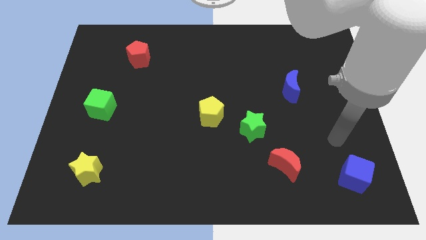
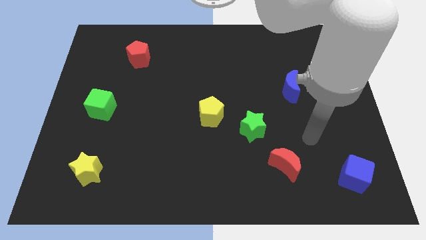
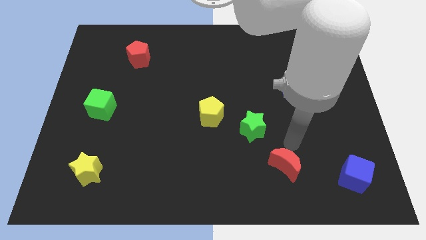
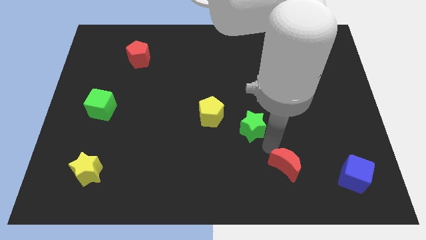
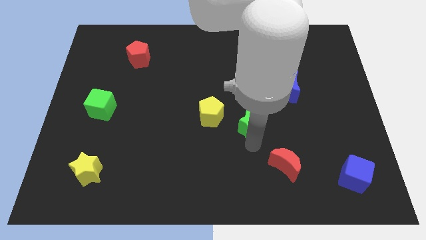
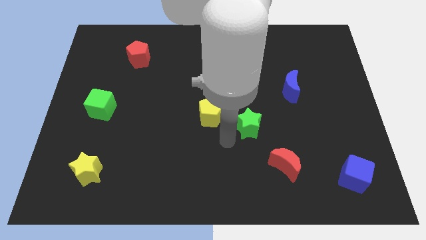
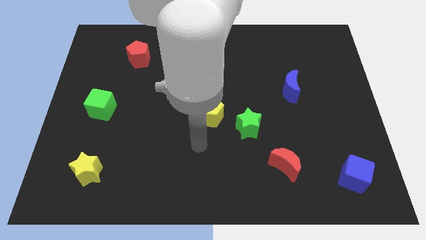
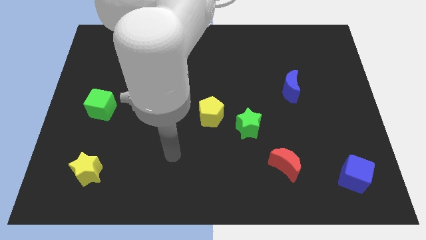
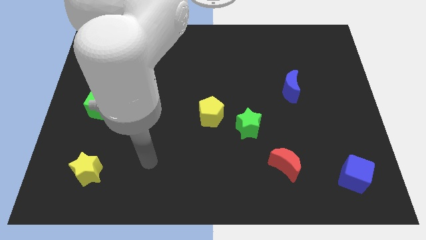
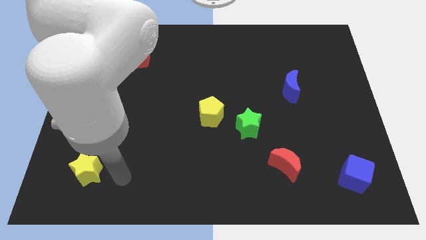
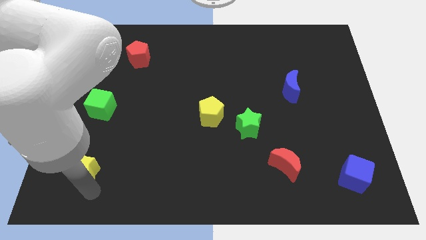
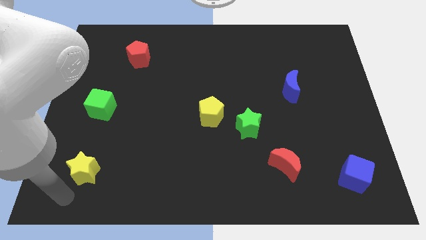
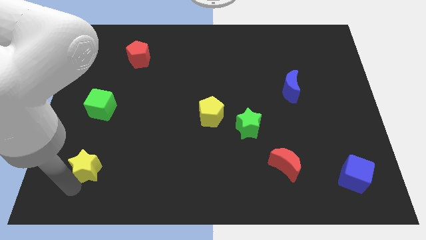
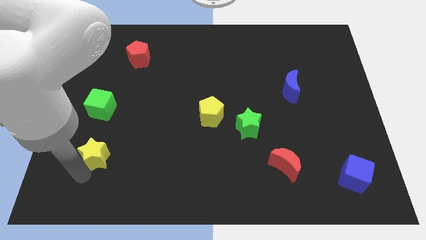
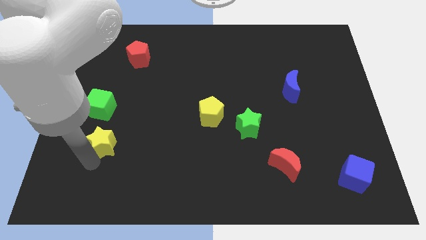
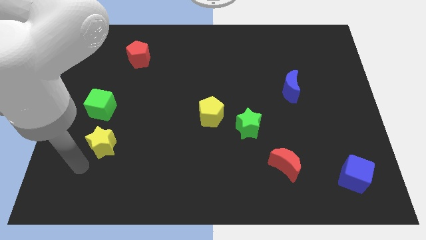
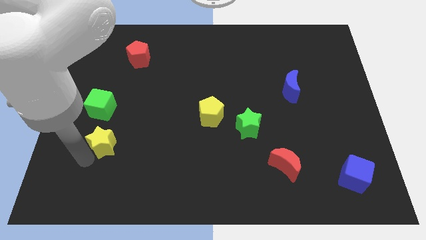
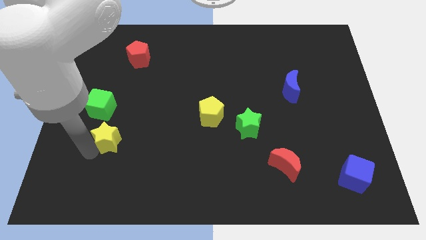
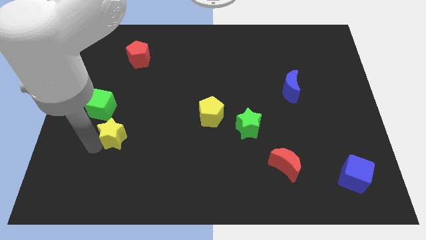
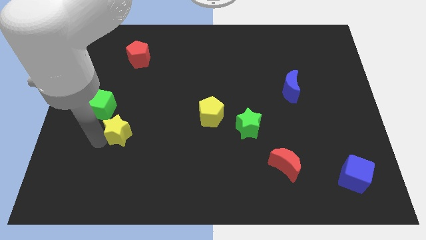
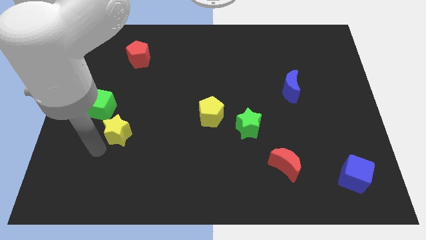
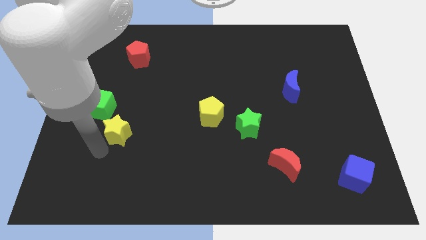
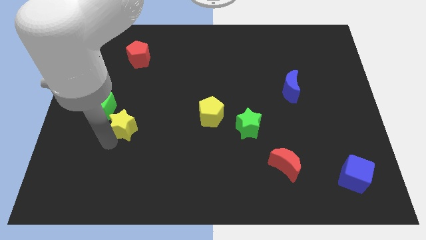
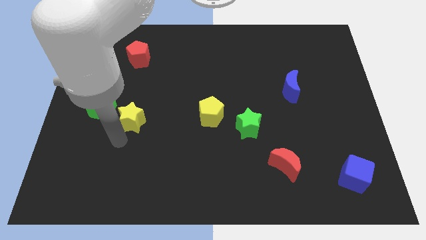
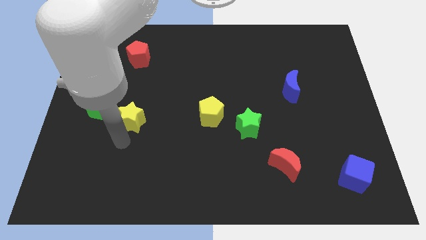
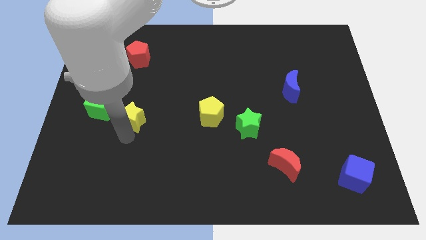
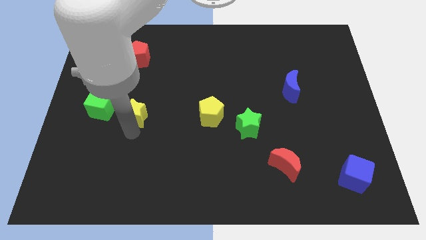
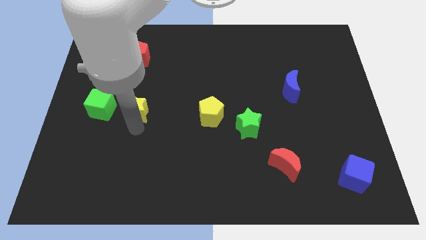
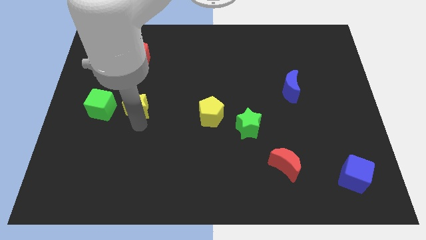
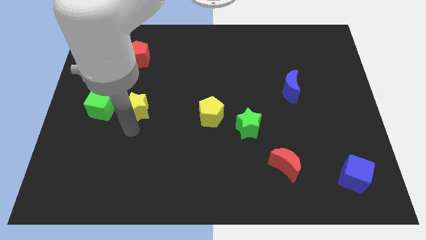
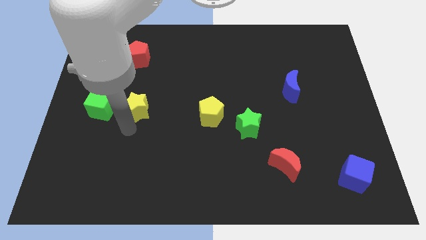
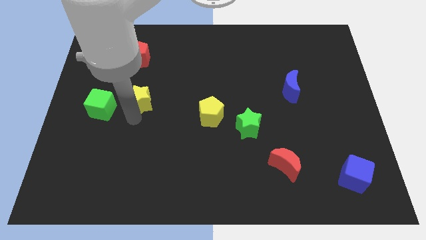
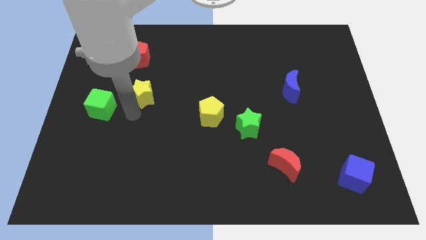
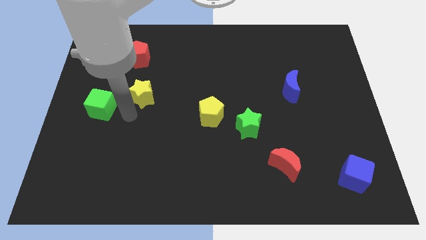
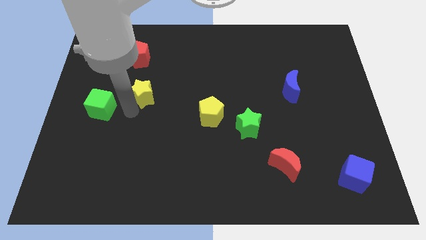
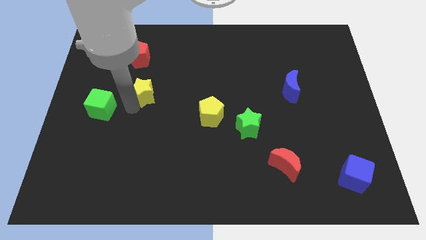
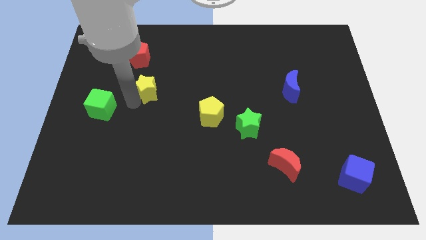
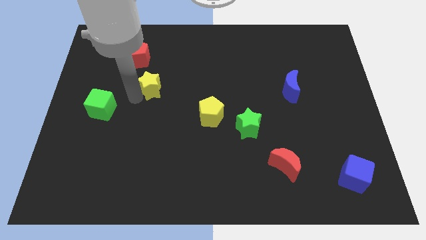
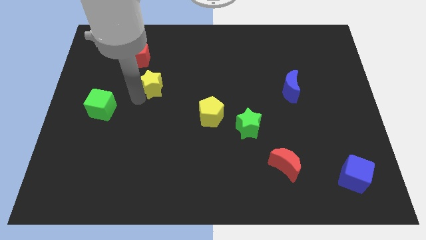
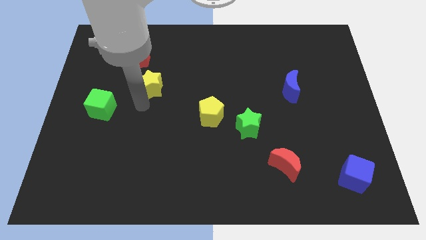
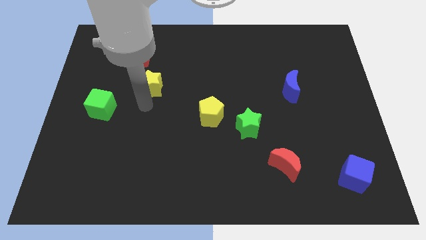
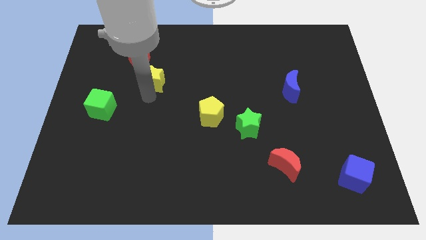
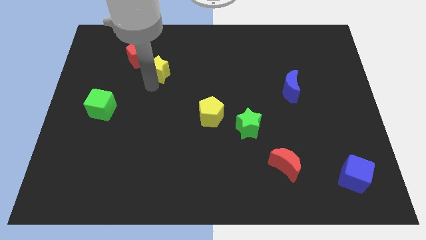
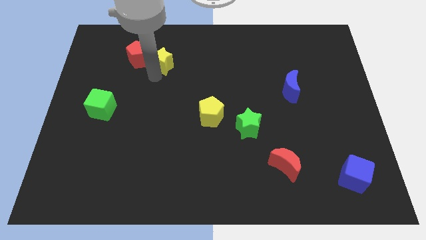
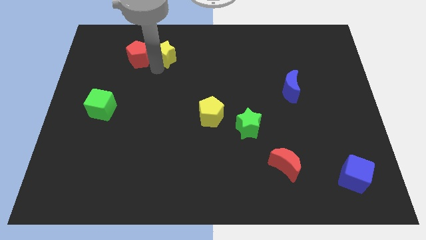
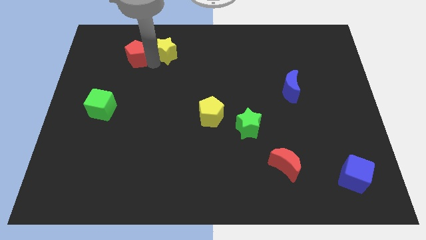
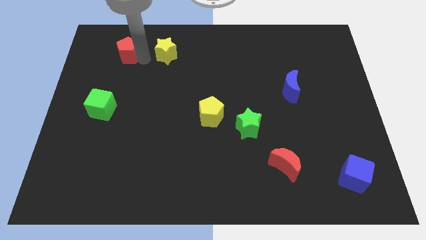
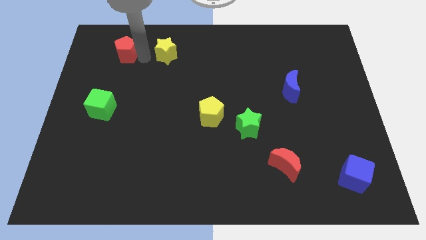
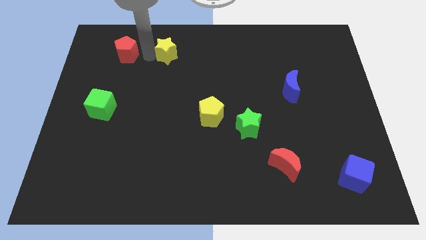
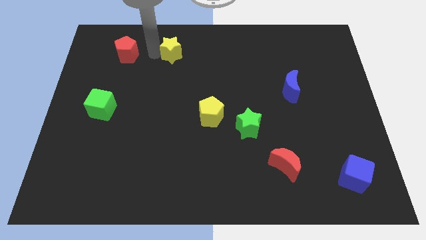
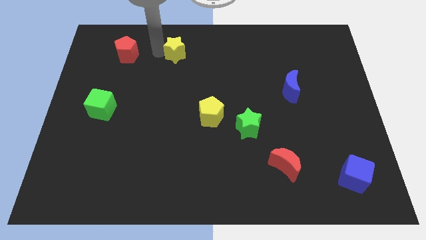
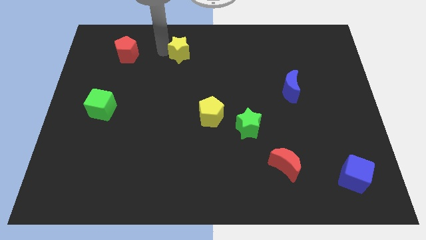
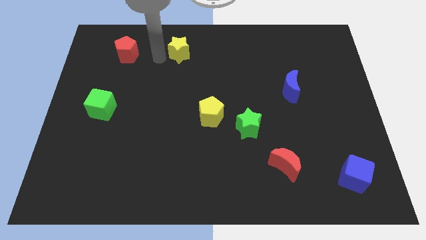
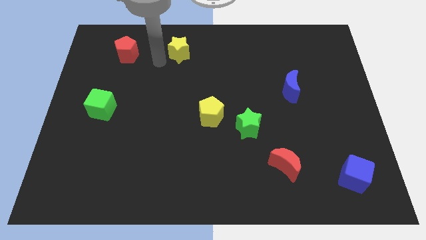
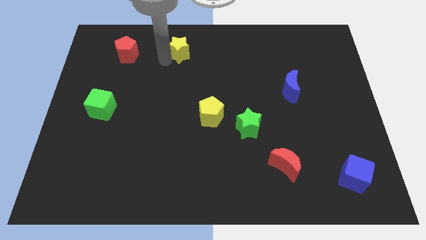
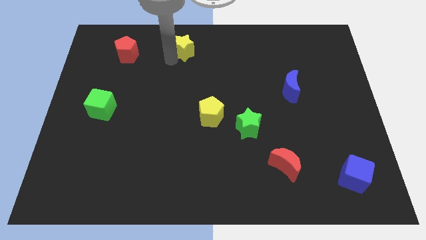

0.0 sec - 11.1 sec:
put the yellow star to the top

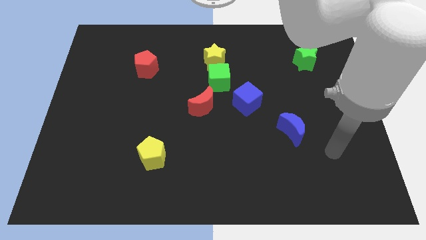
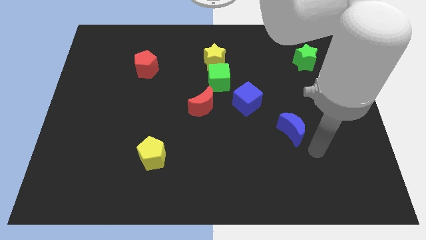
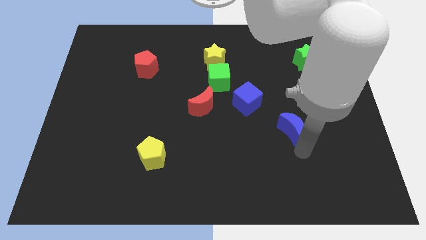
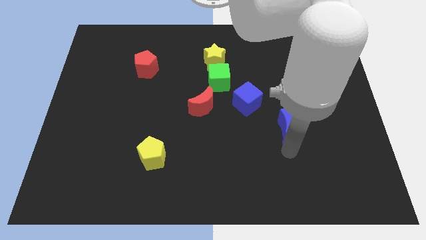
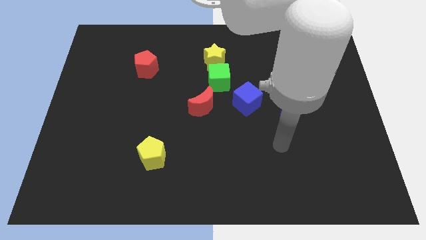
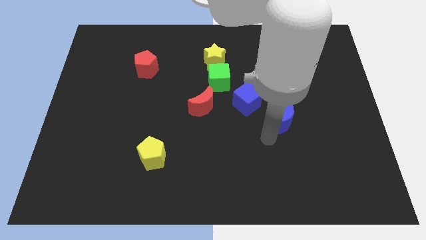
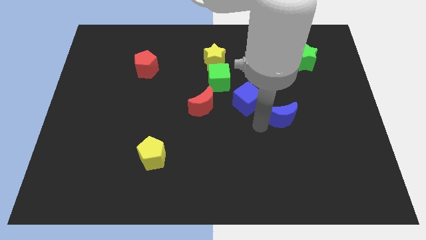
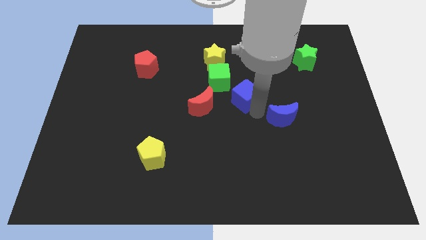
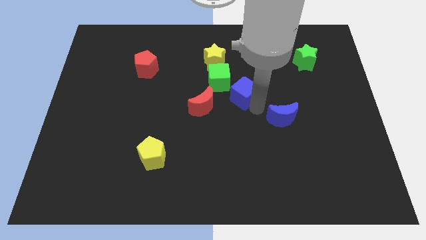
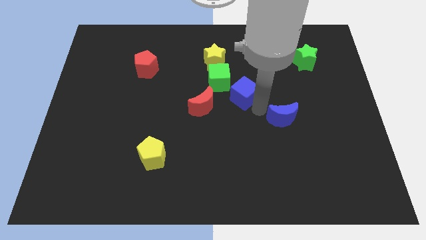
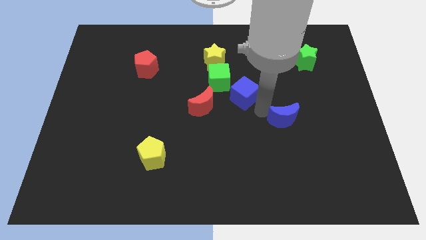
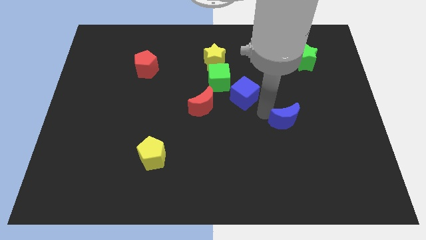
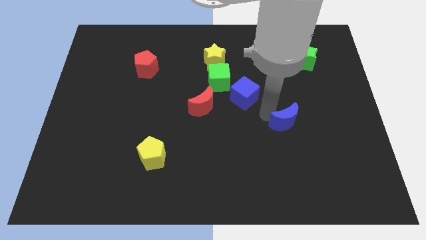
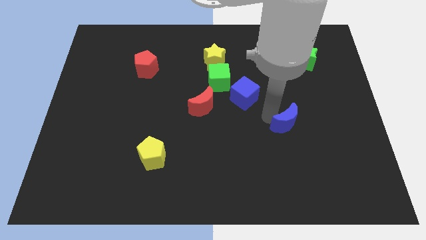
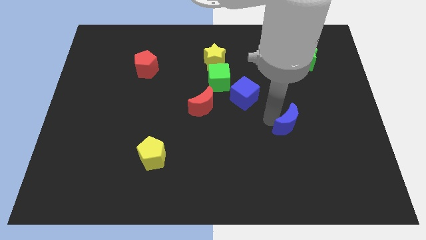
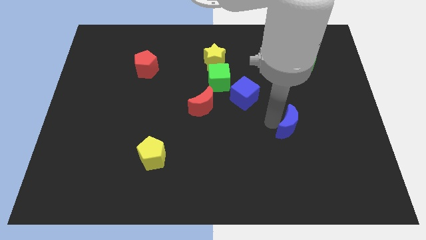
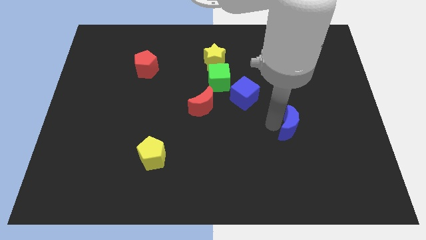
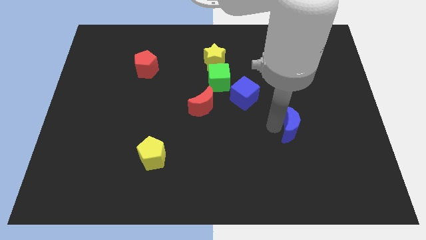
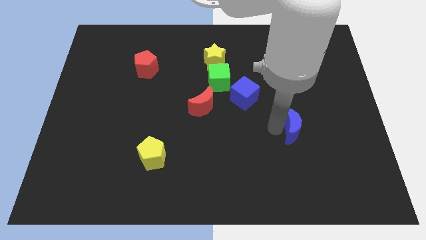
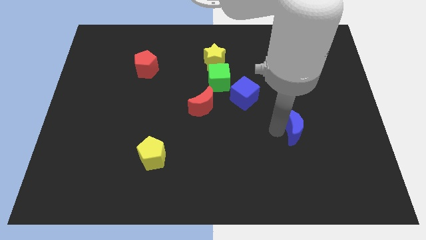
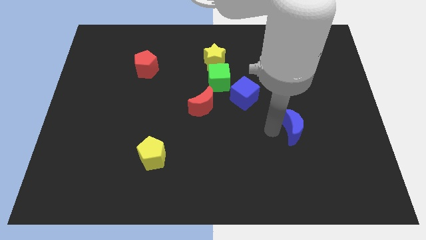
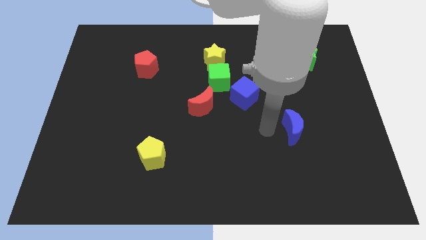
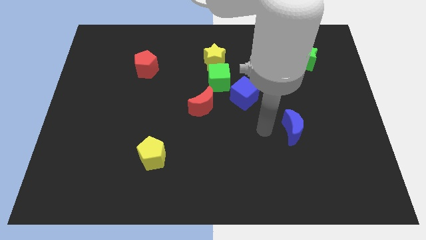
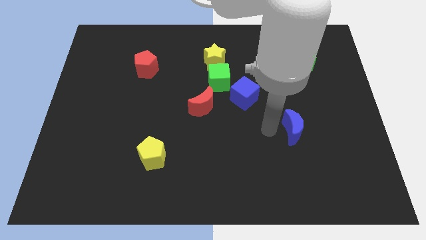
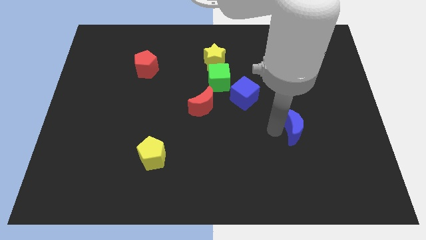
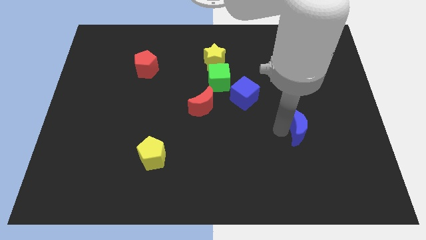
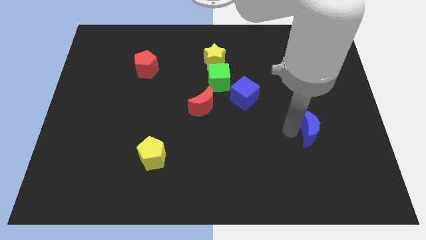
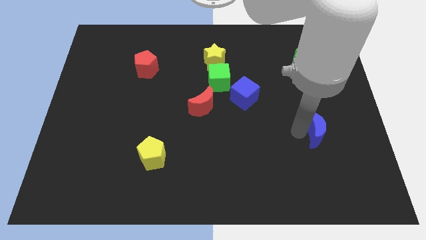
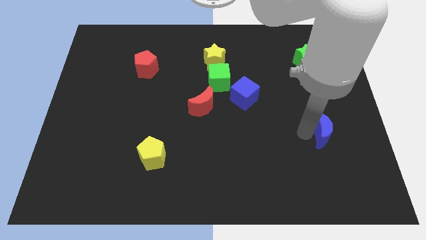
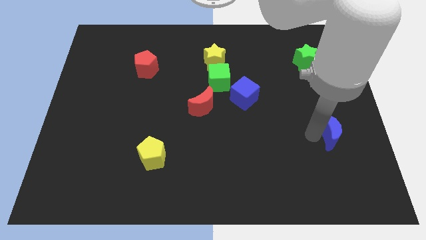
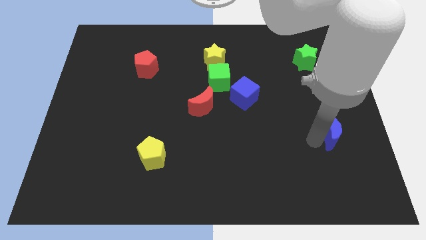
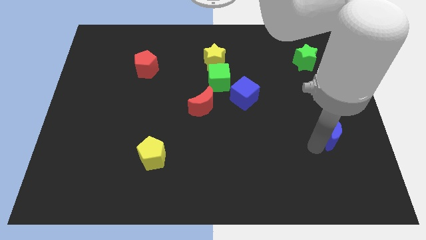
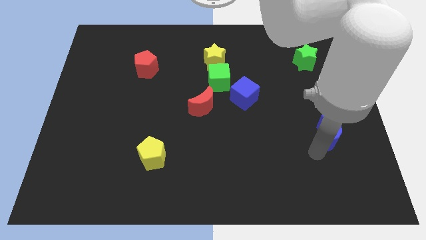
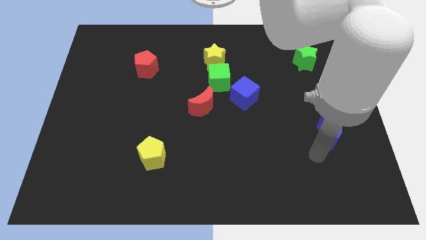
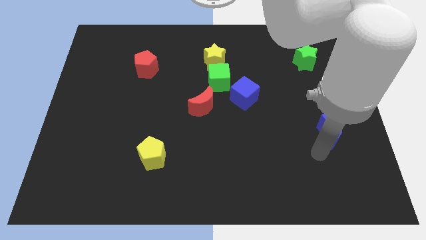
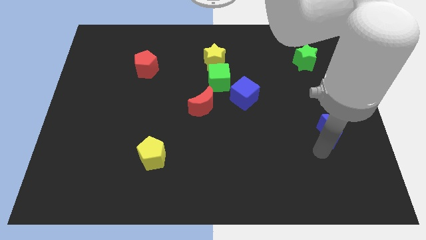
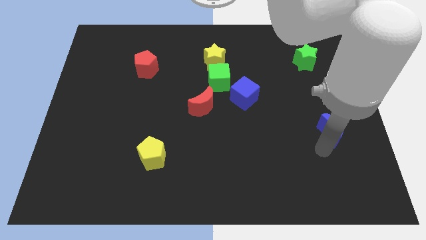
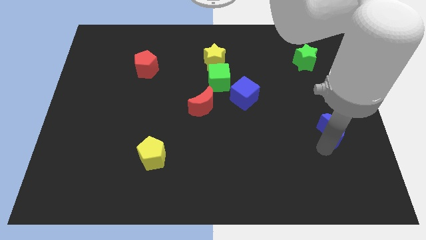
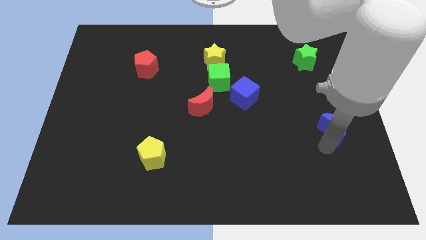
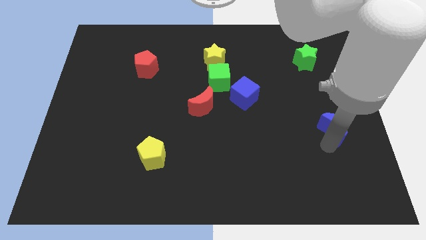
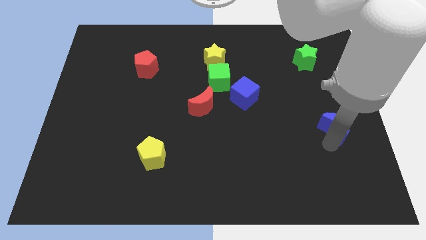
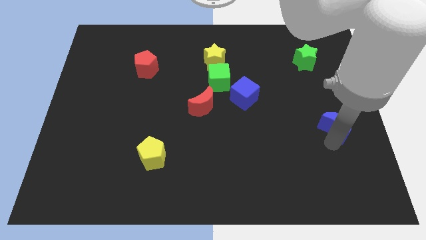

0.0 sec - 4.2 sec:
put the blue moon to the right side
